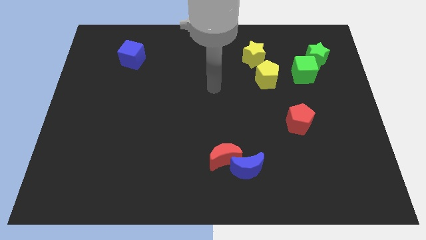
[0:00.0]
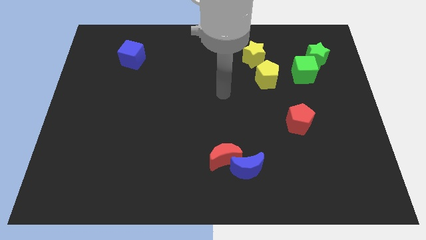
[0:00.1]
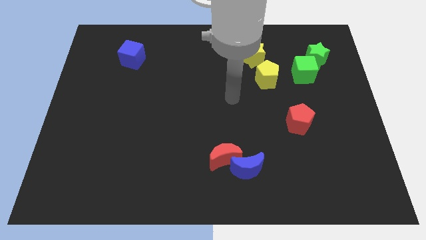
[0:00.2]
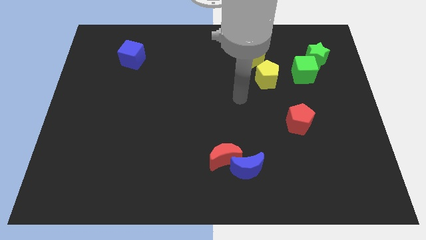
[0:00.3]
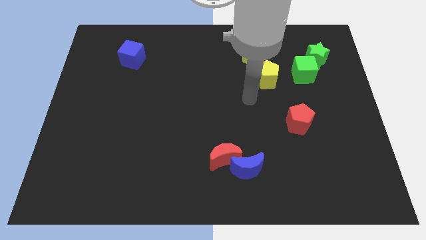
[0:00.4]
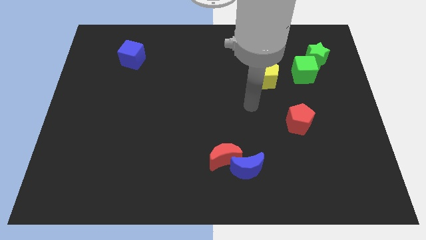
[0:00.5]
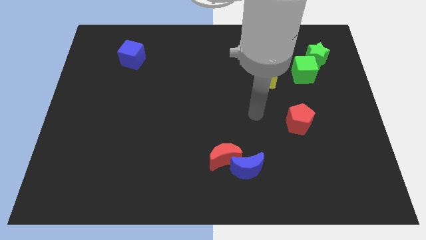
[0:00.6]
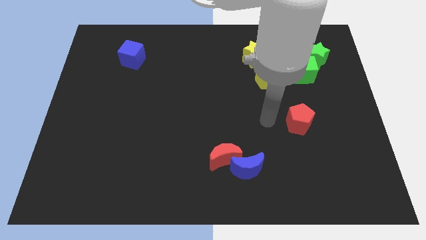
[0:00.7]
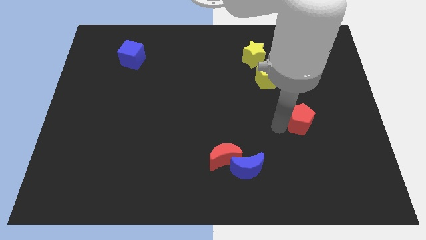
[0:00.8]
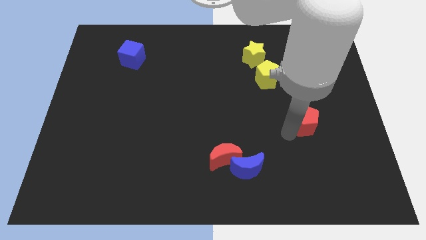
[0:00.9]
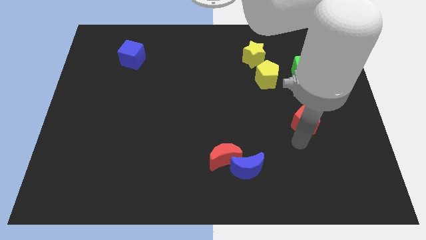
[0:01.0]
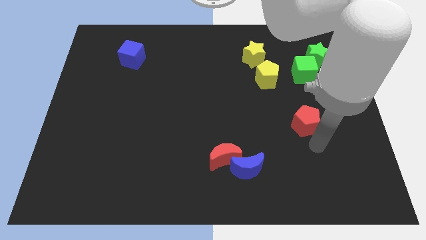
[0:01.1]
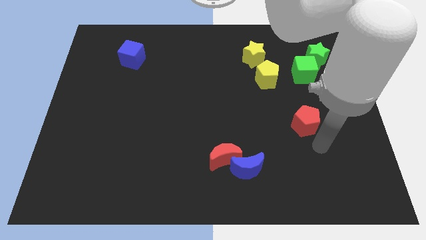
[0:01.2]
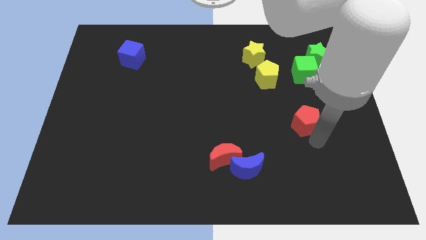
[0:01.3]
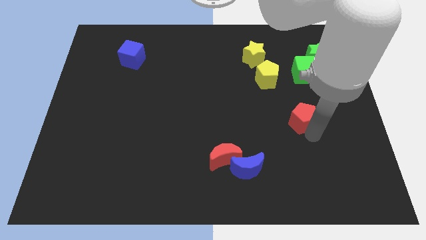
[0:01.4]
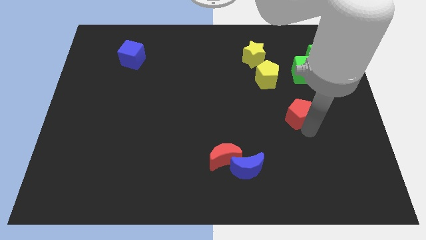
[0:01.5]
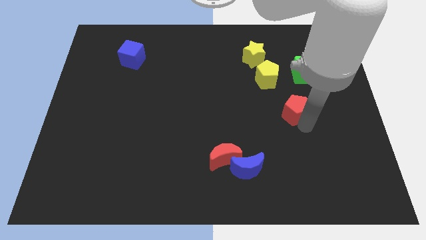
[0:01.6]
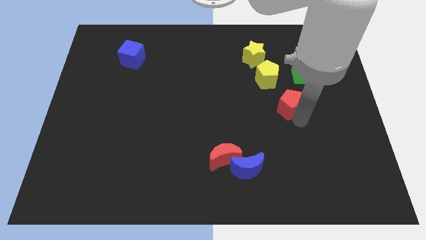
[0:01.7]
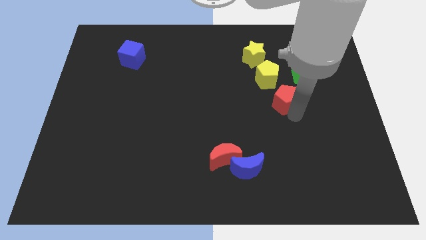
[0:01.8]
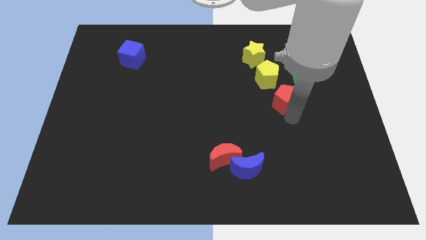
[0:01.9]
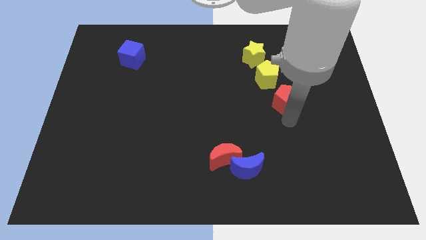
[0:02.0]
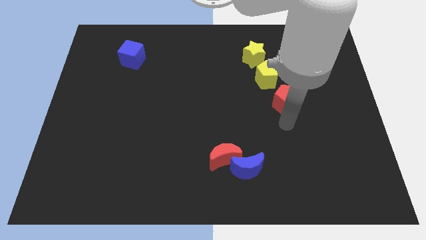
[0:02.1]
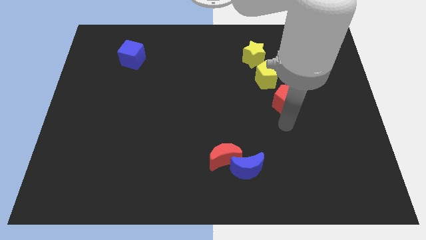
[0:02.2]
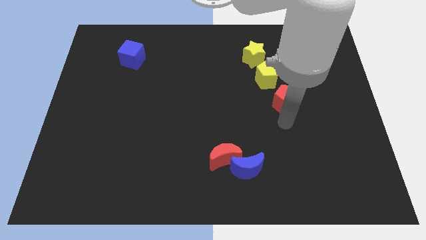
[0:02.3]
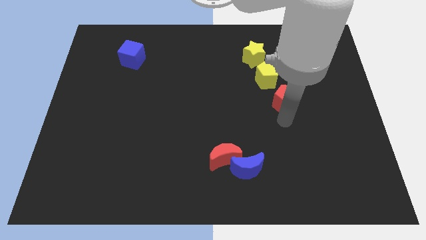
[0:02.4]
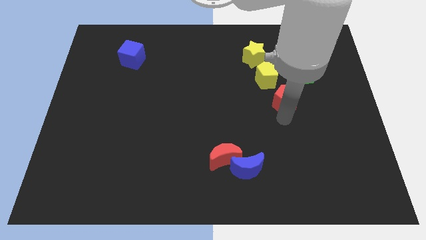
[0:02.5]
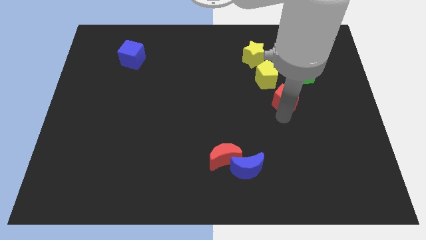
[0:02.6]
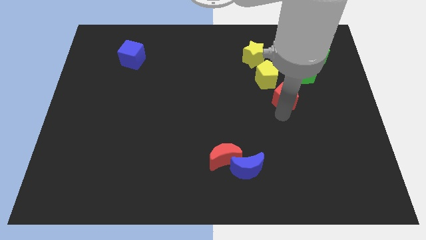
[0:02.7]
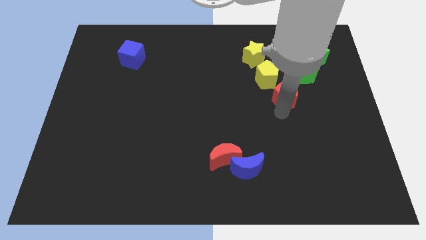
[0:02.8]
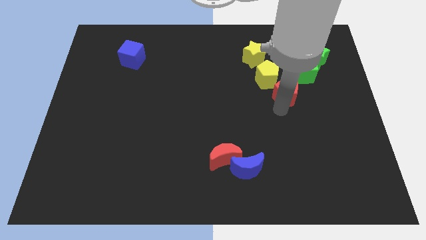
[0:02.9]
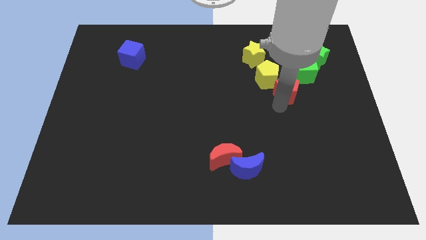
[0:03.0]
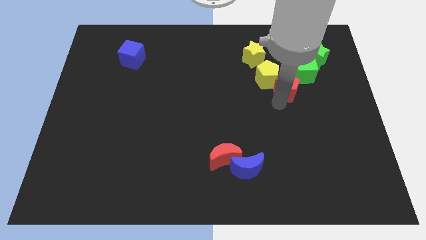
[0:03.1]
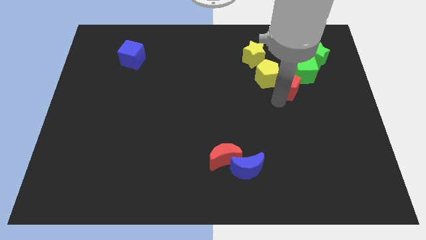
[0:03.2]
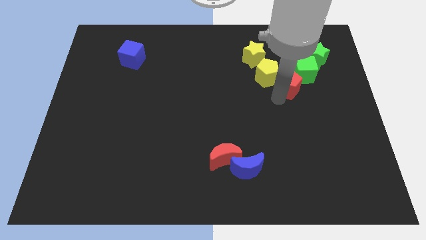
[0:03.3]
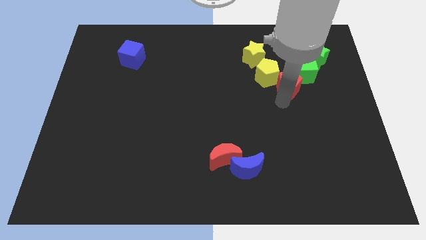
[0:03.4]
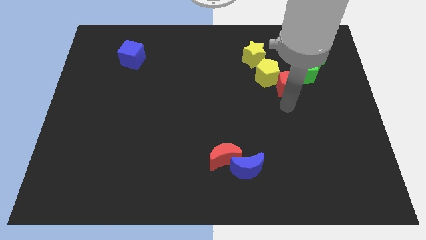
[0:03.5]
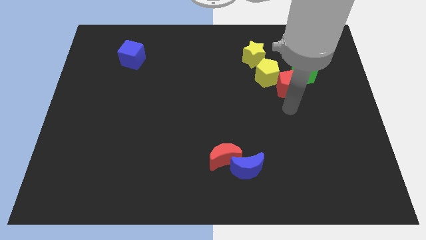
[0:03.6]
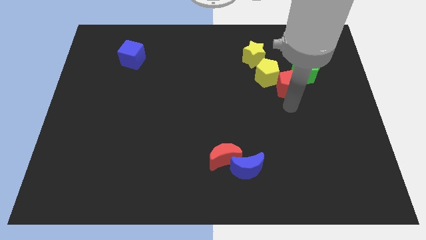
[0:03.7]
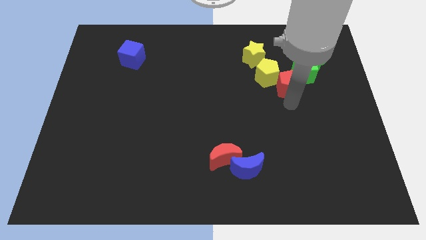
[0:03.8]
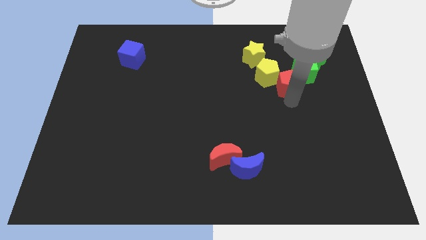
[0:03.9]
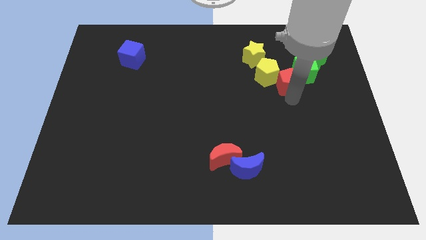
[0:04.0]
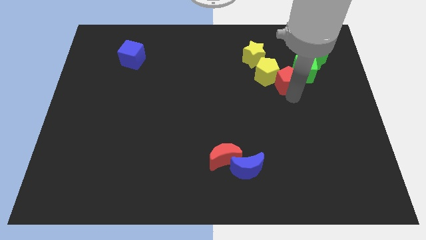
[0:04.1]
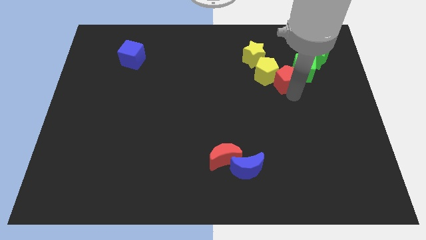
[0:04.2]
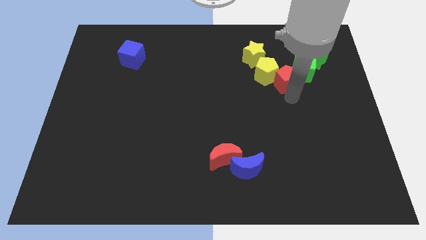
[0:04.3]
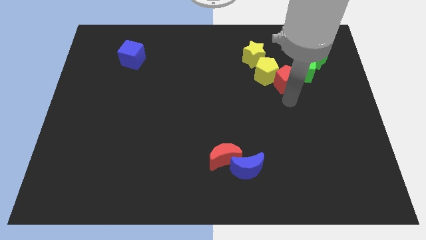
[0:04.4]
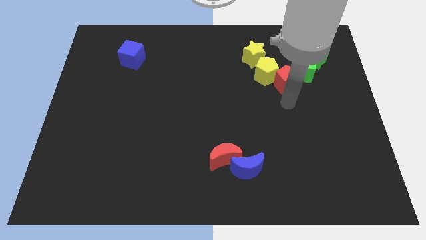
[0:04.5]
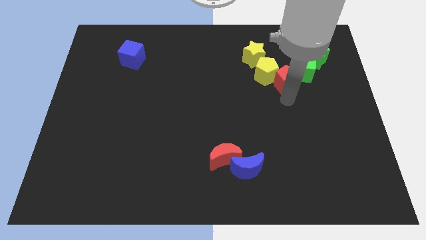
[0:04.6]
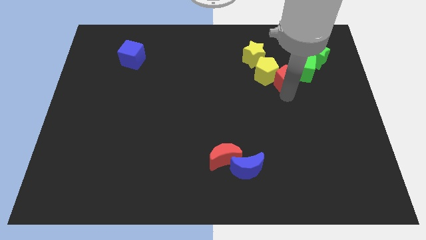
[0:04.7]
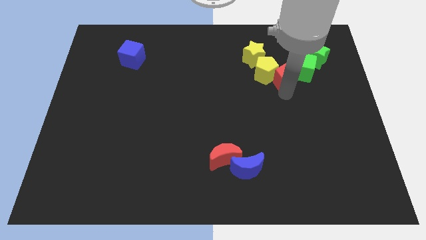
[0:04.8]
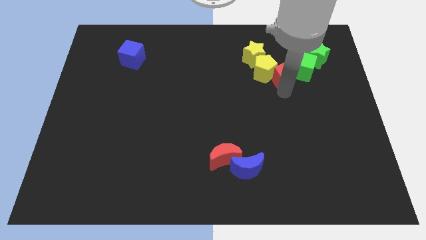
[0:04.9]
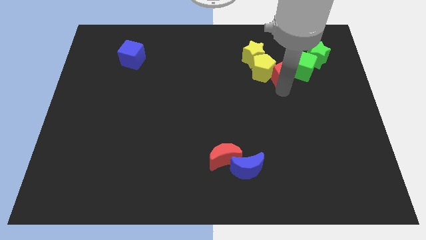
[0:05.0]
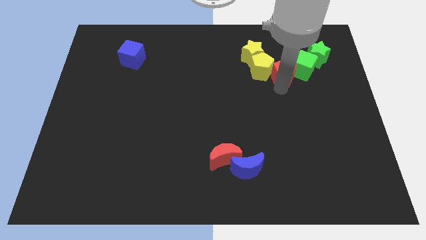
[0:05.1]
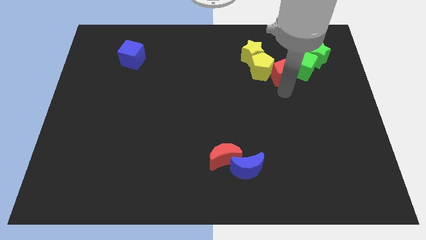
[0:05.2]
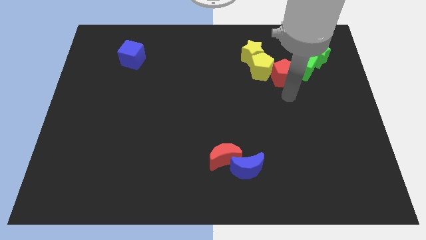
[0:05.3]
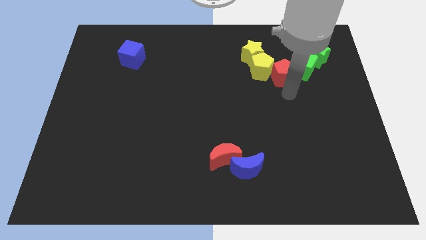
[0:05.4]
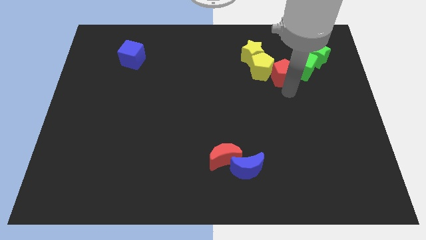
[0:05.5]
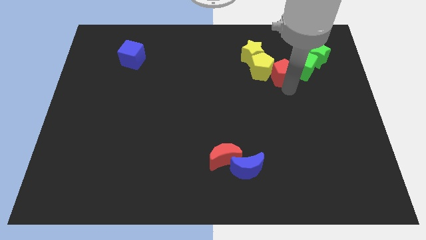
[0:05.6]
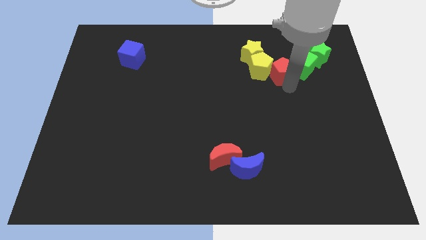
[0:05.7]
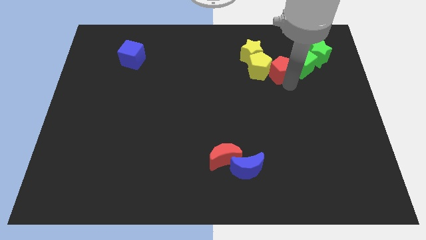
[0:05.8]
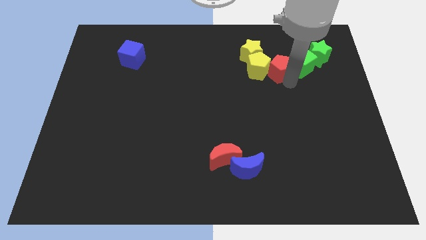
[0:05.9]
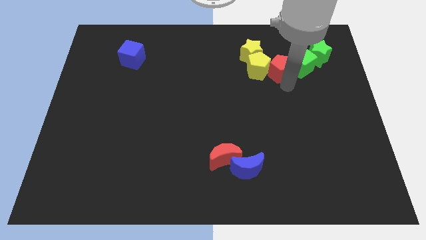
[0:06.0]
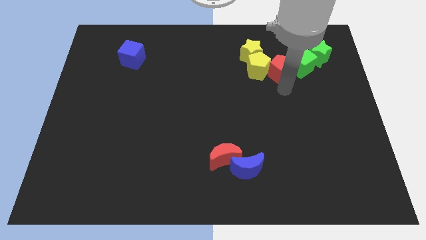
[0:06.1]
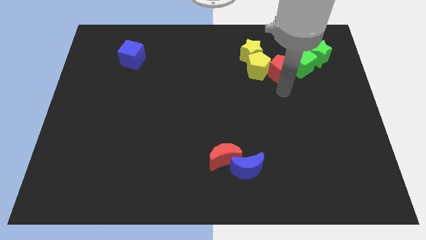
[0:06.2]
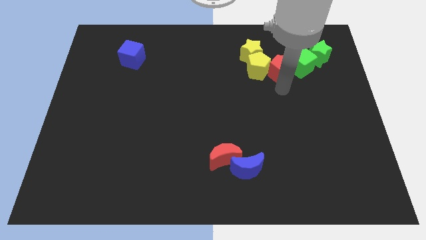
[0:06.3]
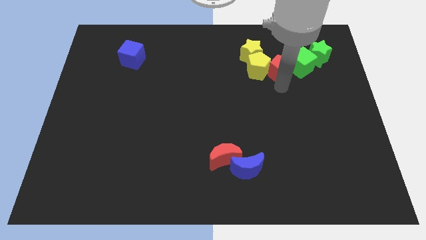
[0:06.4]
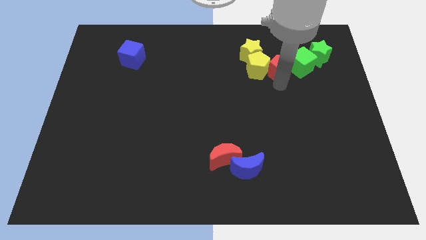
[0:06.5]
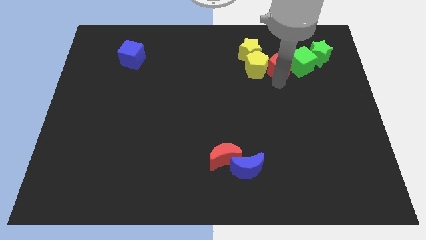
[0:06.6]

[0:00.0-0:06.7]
slide the red pentagon just left of the green star

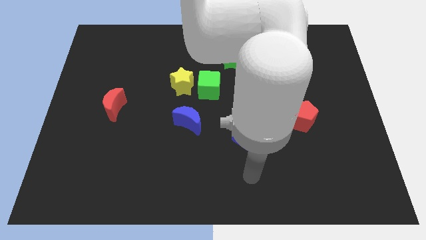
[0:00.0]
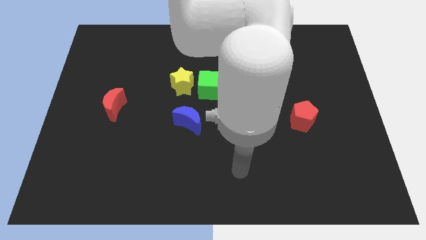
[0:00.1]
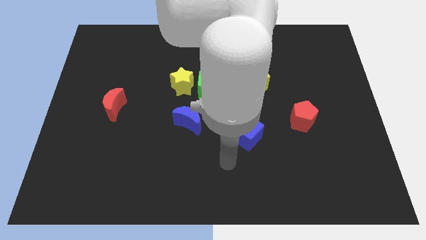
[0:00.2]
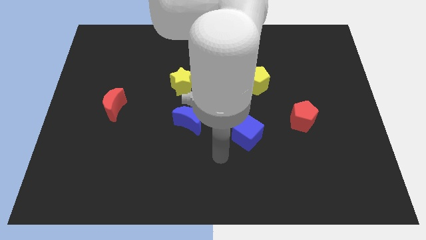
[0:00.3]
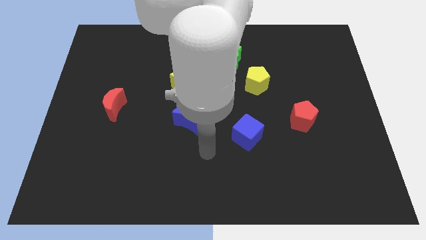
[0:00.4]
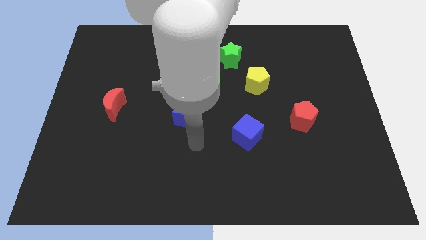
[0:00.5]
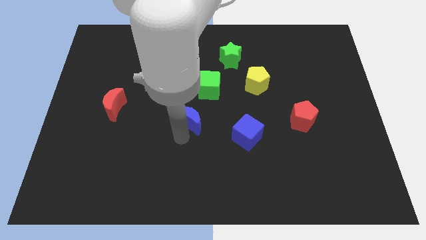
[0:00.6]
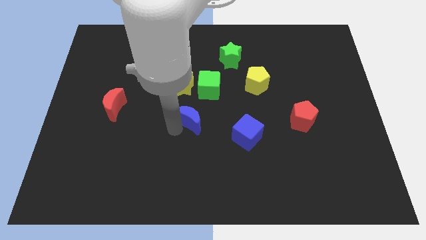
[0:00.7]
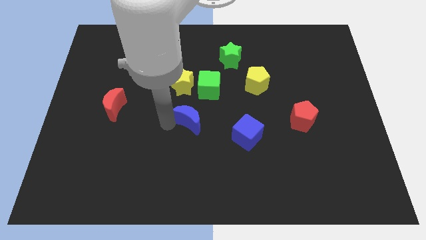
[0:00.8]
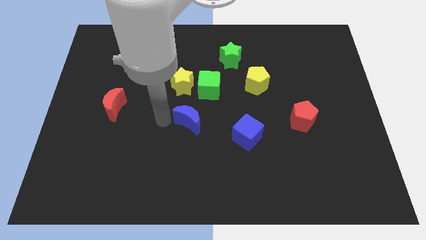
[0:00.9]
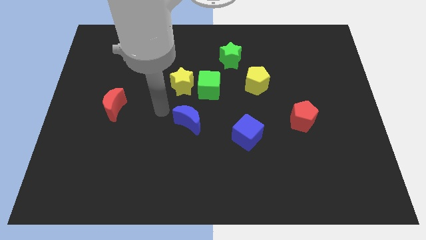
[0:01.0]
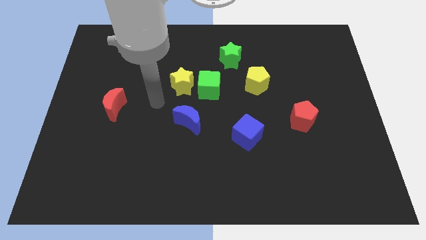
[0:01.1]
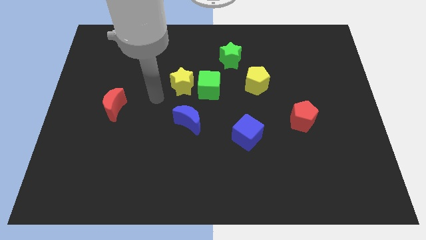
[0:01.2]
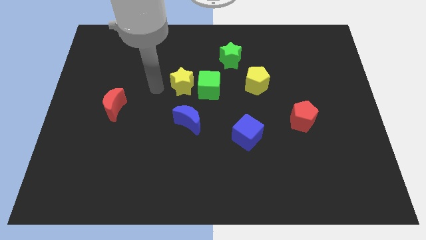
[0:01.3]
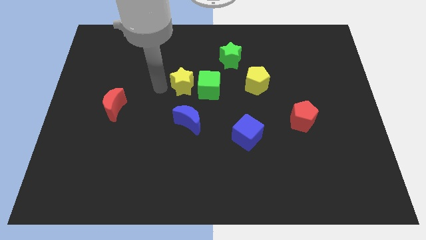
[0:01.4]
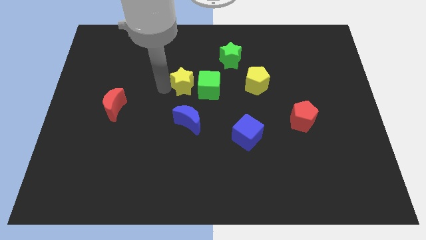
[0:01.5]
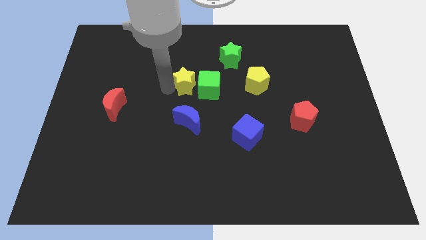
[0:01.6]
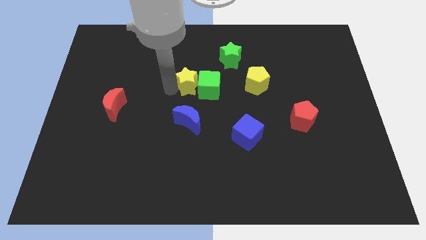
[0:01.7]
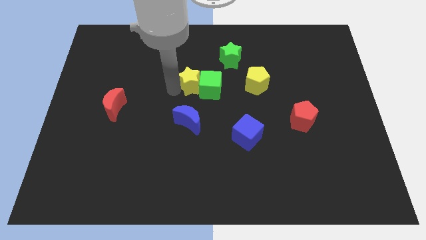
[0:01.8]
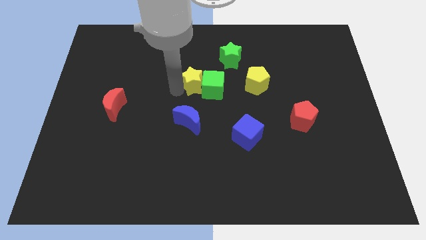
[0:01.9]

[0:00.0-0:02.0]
put the yellow star to the left side of the yellow pentagon

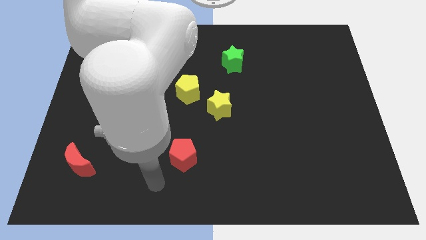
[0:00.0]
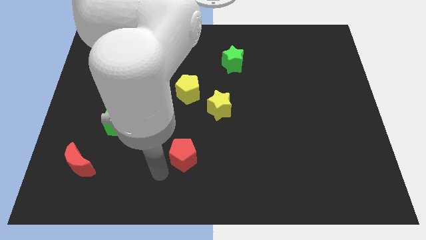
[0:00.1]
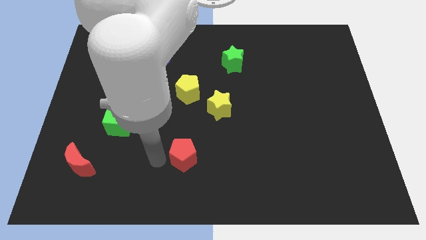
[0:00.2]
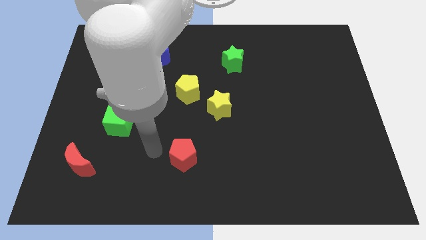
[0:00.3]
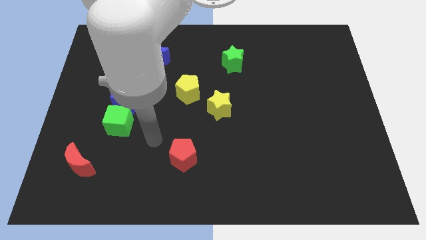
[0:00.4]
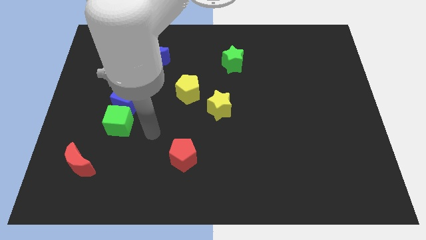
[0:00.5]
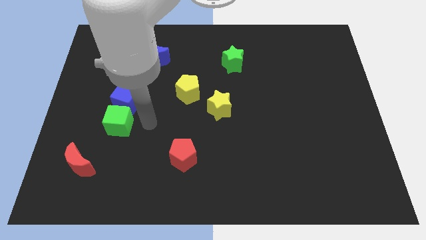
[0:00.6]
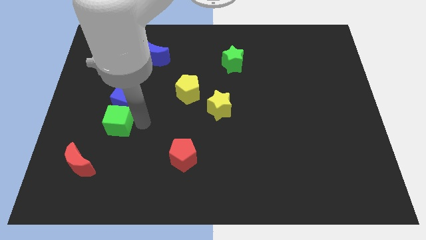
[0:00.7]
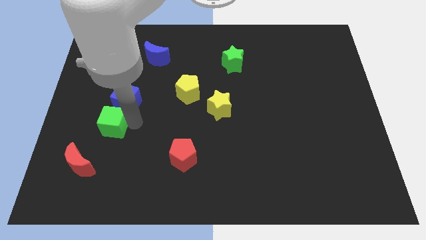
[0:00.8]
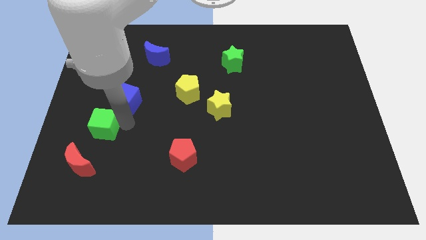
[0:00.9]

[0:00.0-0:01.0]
move the green cube to the top of the red moon
